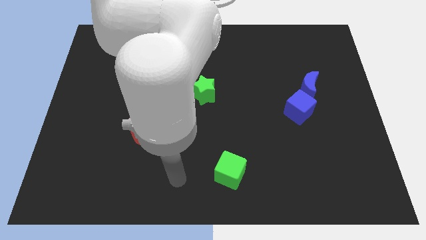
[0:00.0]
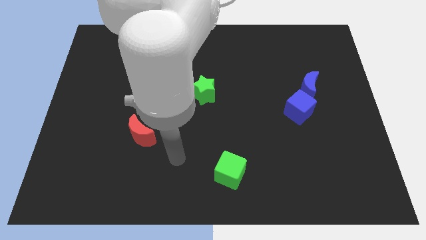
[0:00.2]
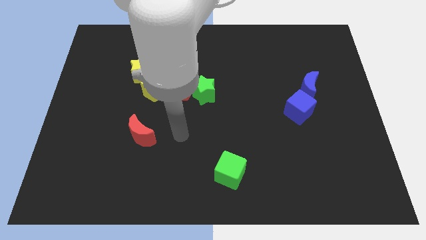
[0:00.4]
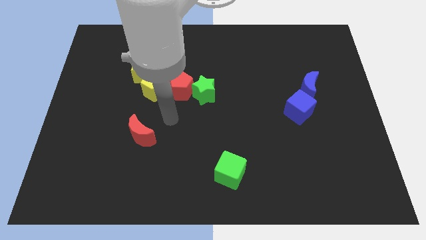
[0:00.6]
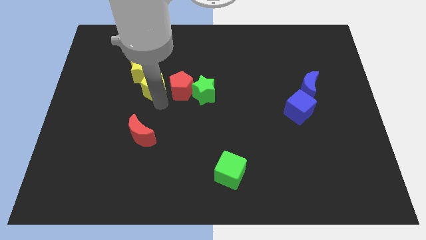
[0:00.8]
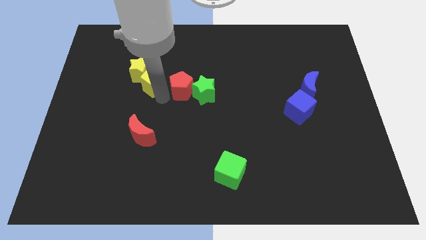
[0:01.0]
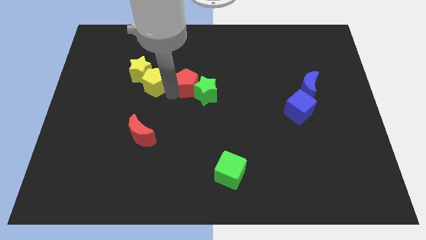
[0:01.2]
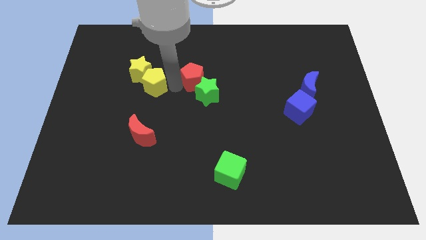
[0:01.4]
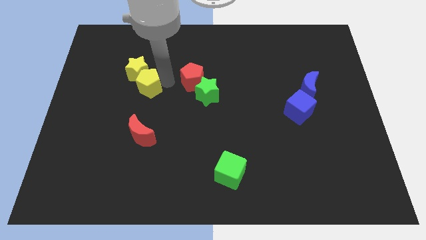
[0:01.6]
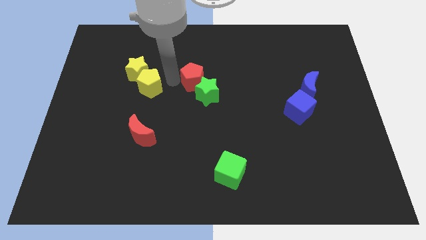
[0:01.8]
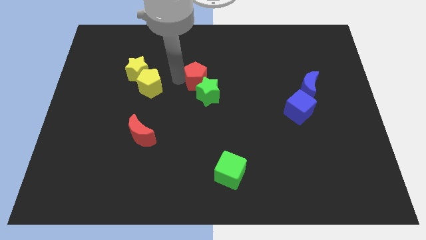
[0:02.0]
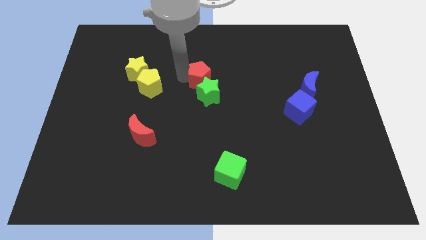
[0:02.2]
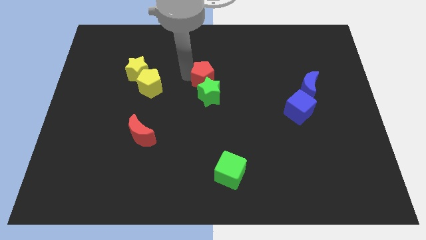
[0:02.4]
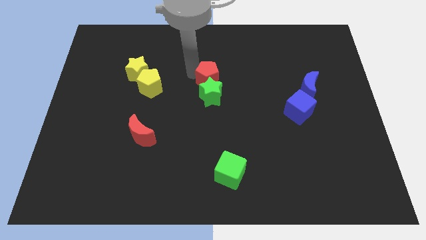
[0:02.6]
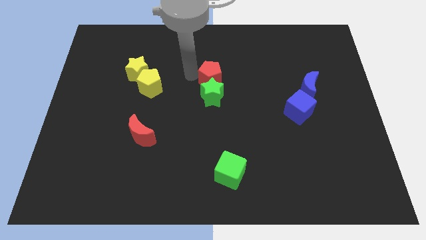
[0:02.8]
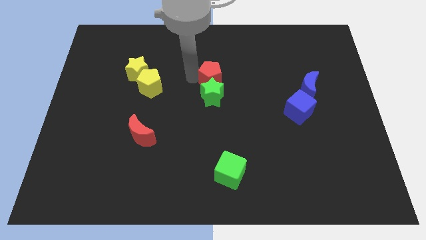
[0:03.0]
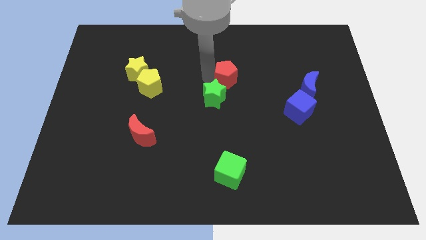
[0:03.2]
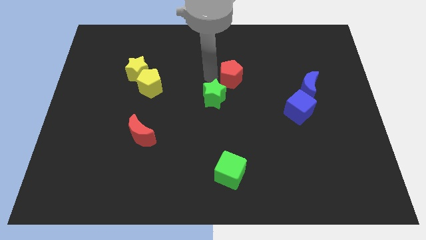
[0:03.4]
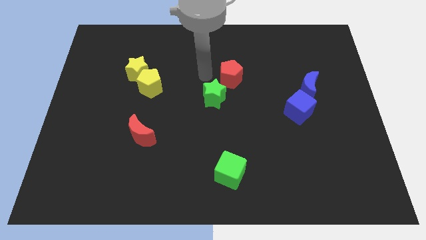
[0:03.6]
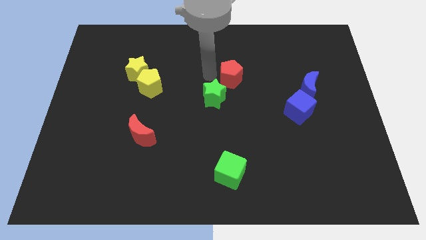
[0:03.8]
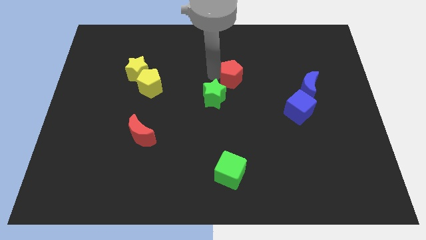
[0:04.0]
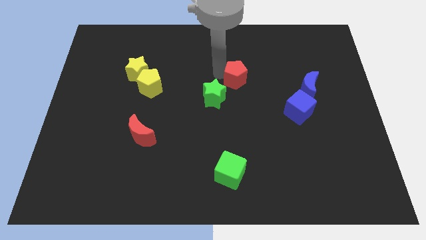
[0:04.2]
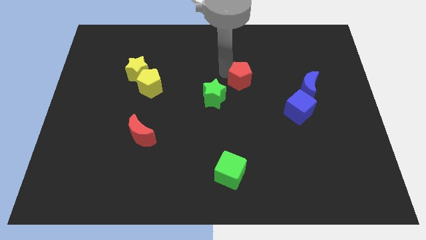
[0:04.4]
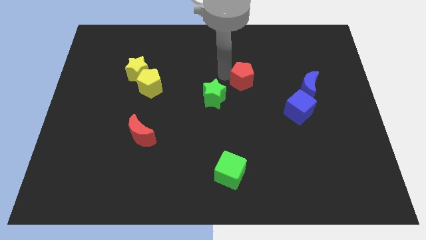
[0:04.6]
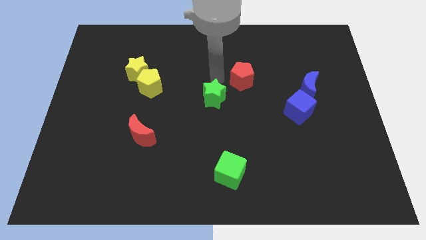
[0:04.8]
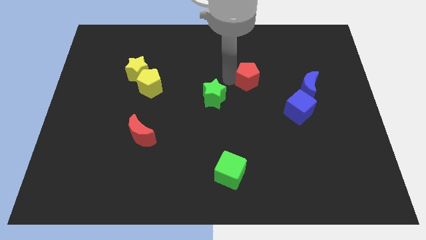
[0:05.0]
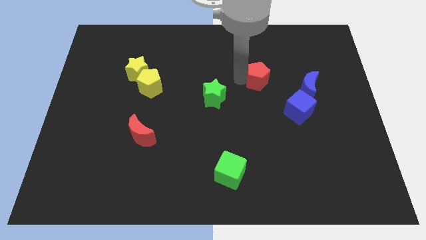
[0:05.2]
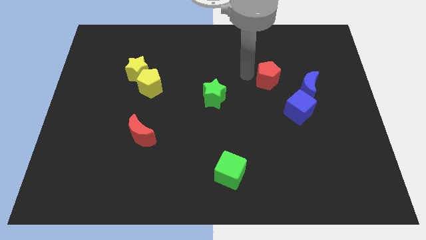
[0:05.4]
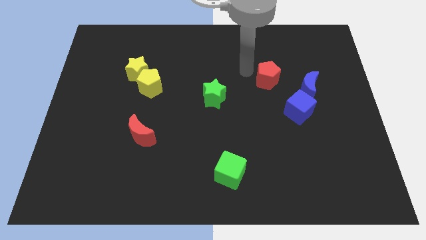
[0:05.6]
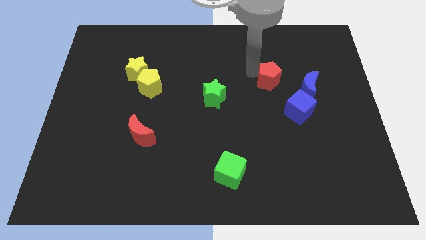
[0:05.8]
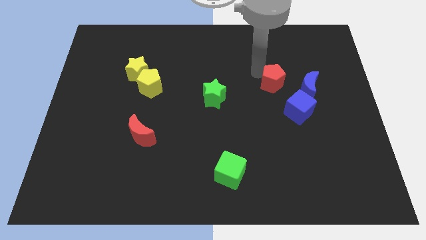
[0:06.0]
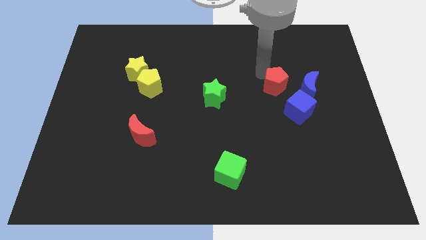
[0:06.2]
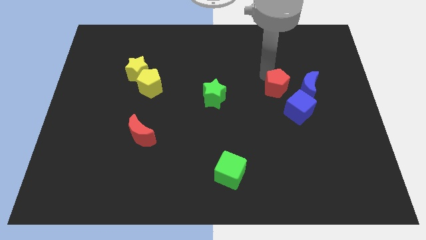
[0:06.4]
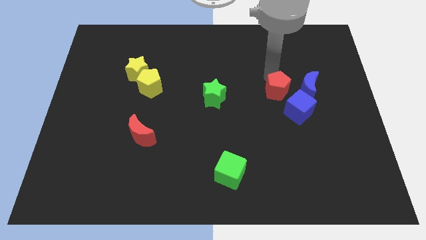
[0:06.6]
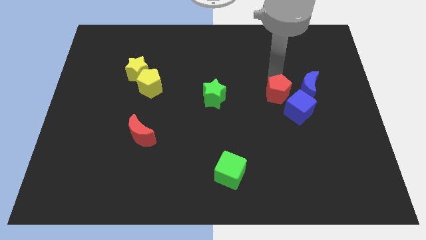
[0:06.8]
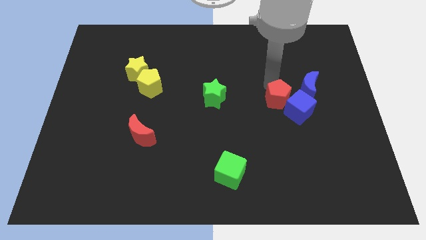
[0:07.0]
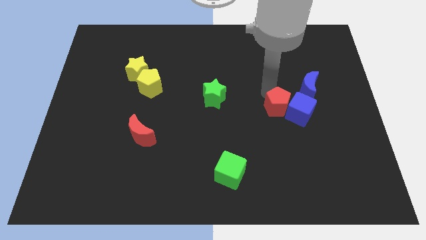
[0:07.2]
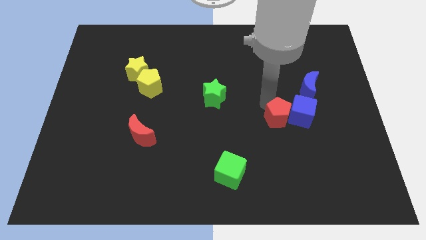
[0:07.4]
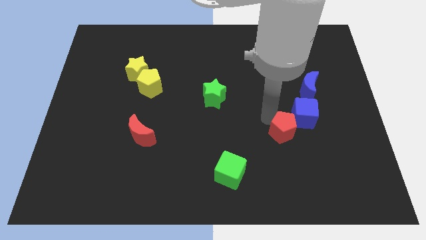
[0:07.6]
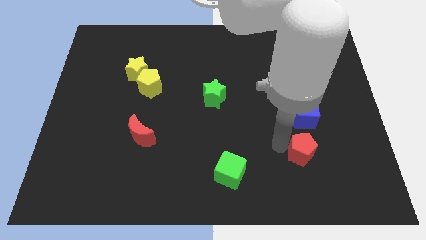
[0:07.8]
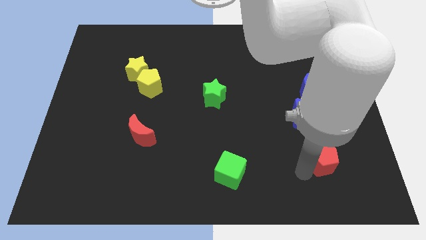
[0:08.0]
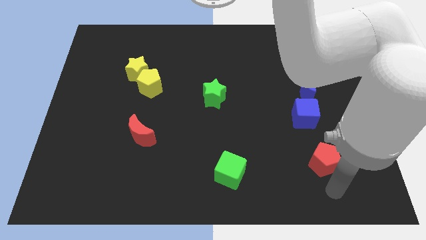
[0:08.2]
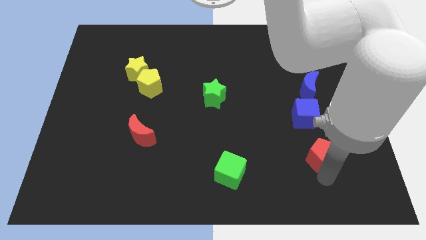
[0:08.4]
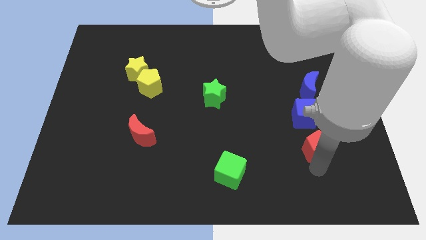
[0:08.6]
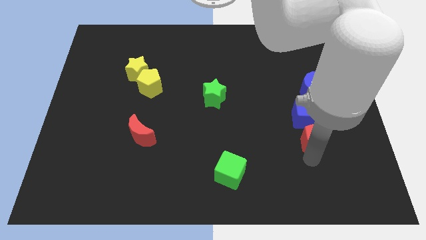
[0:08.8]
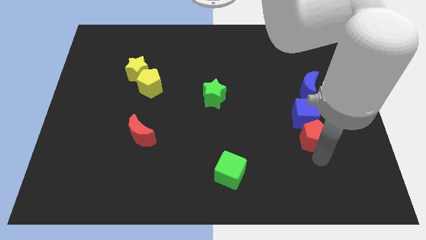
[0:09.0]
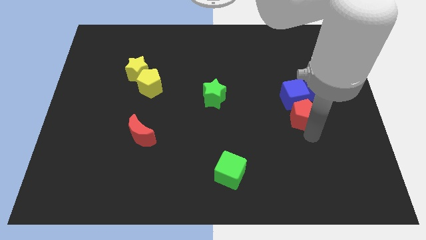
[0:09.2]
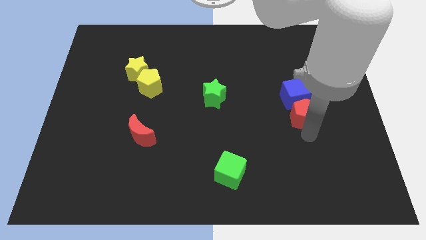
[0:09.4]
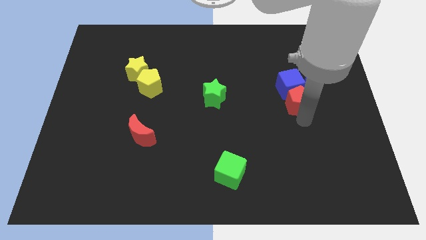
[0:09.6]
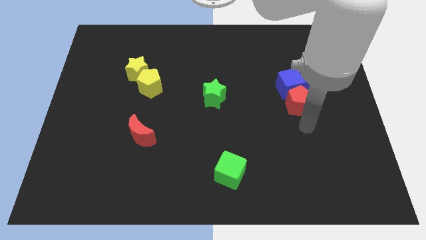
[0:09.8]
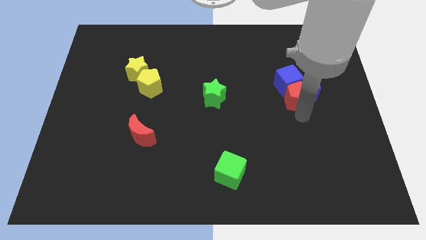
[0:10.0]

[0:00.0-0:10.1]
move the red pentagon close to the blue moon

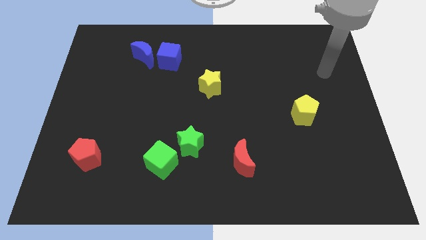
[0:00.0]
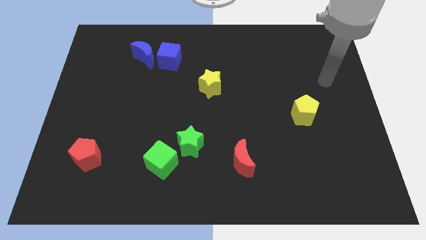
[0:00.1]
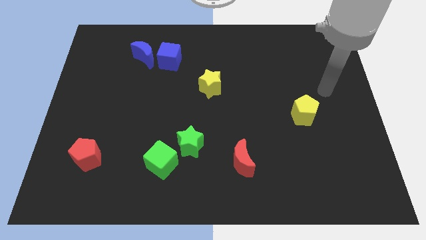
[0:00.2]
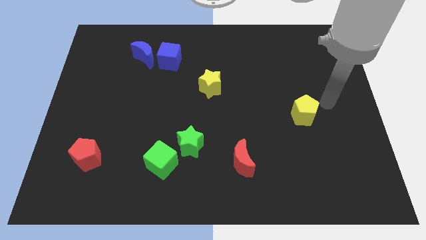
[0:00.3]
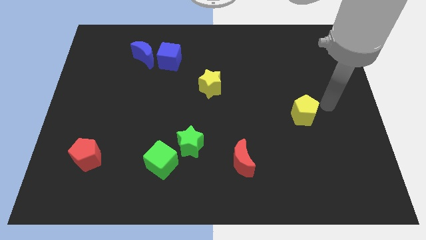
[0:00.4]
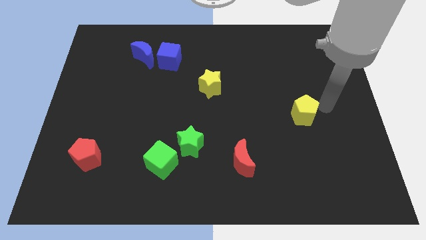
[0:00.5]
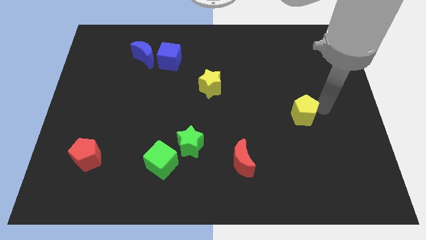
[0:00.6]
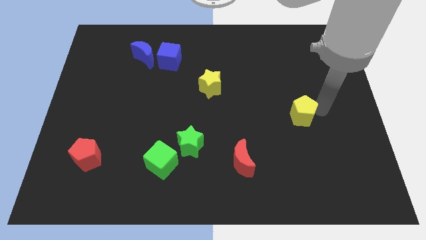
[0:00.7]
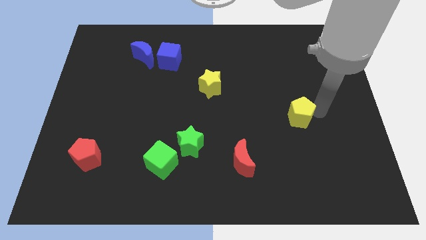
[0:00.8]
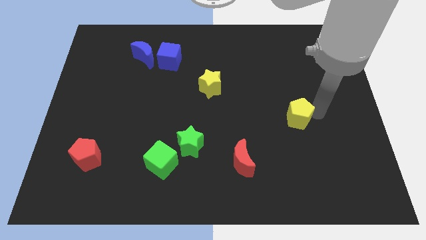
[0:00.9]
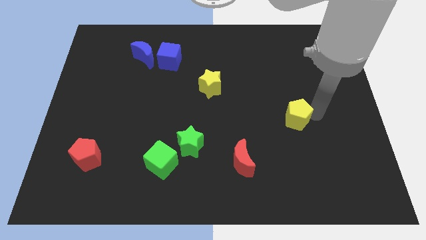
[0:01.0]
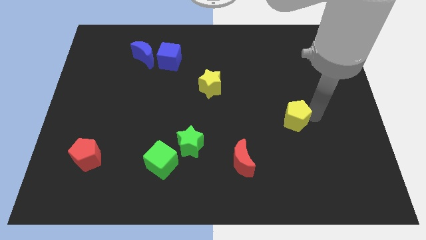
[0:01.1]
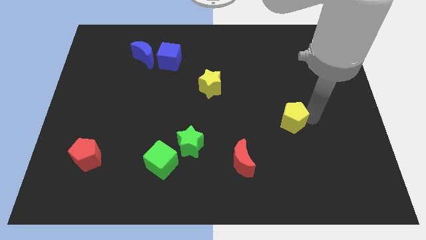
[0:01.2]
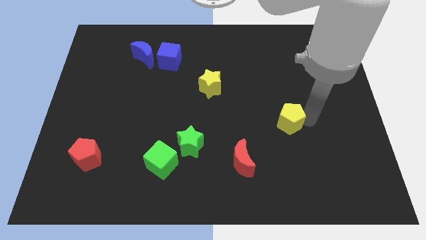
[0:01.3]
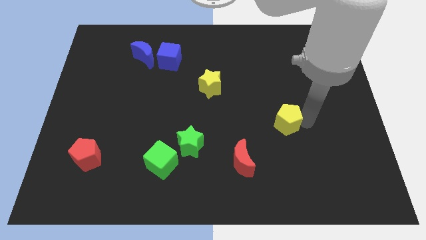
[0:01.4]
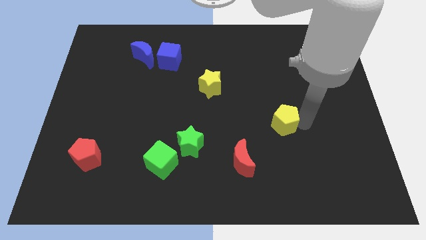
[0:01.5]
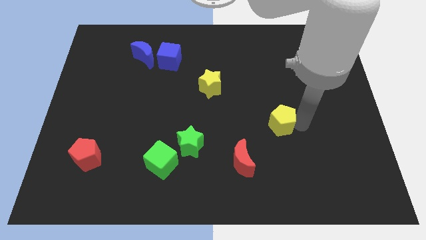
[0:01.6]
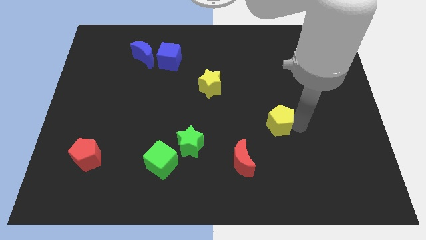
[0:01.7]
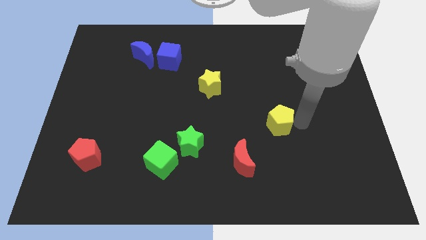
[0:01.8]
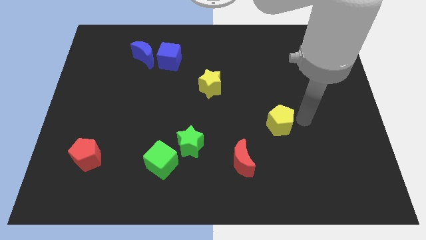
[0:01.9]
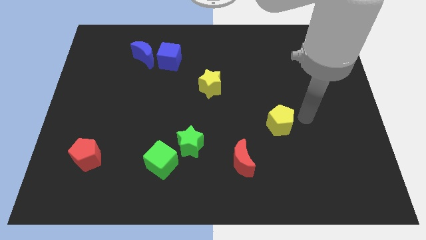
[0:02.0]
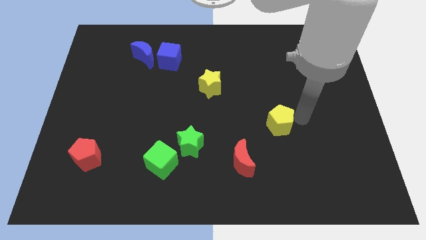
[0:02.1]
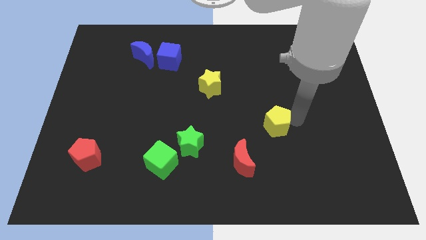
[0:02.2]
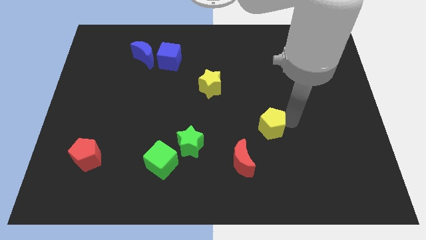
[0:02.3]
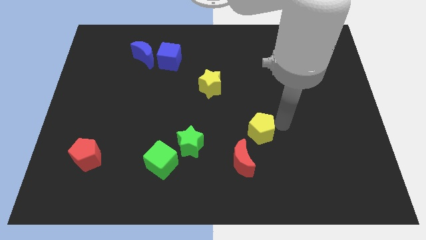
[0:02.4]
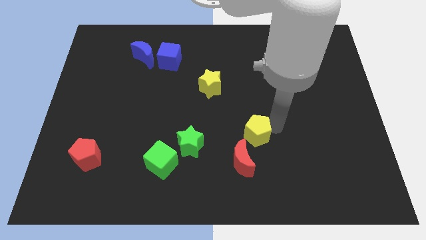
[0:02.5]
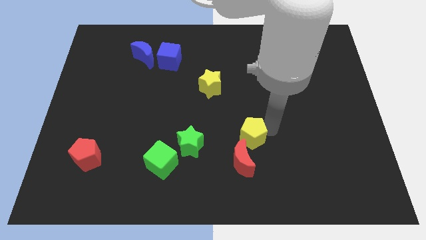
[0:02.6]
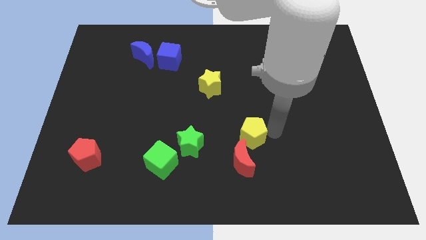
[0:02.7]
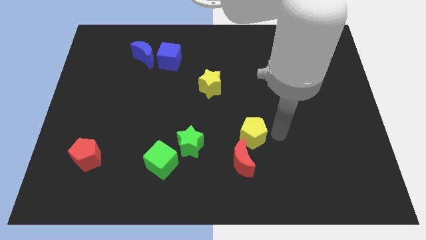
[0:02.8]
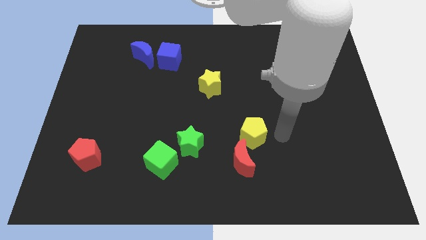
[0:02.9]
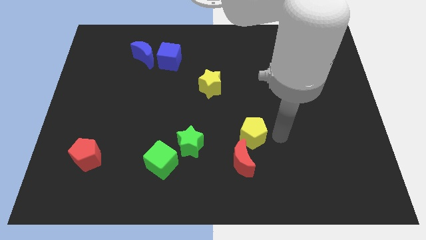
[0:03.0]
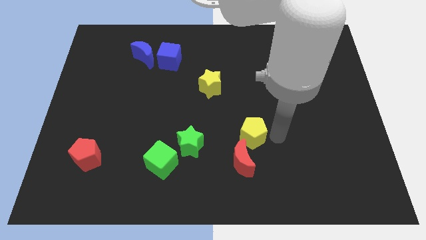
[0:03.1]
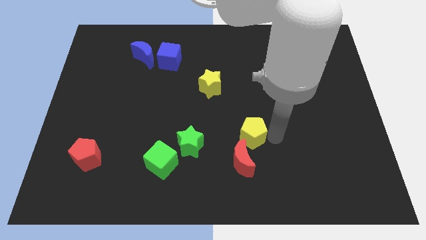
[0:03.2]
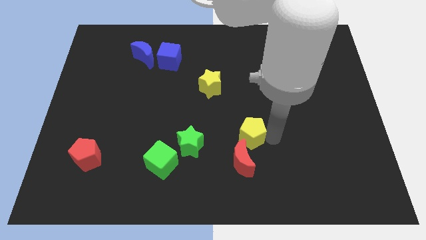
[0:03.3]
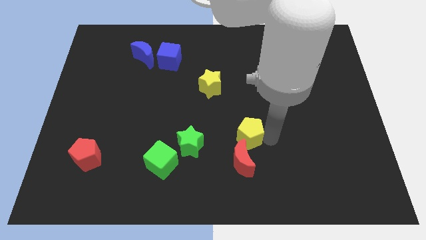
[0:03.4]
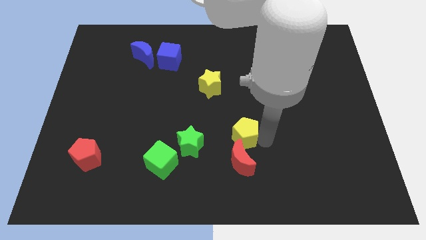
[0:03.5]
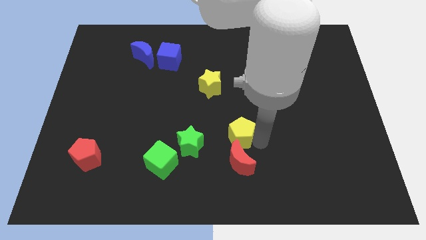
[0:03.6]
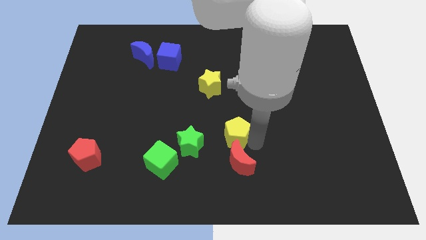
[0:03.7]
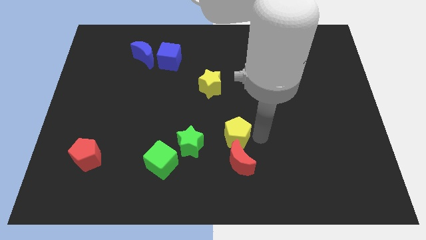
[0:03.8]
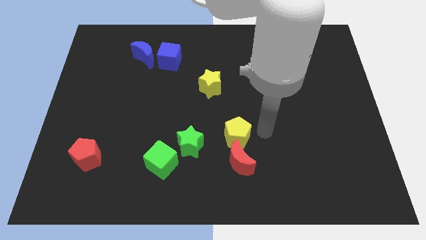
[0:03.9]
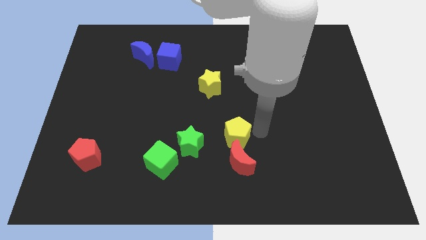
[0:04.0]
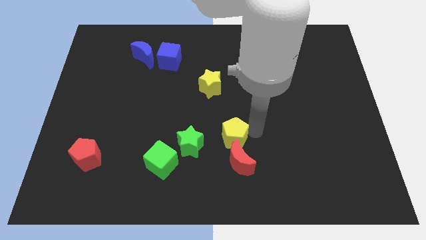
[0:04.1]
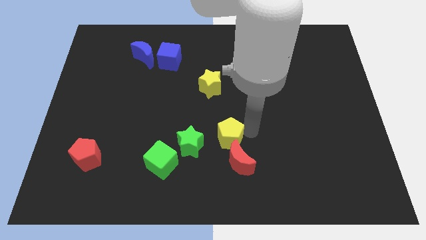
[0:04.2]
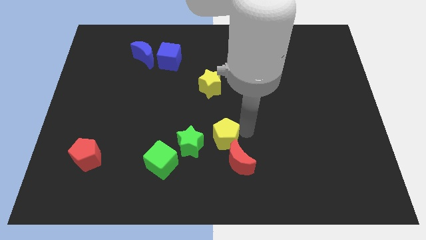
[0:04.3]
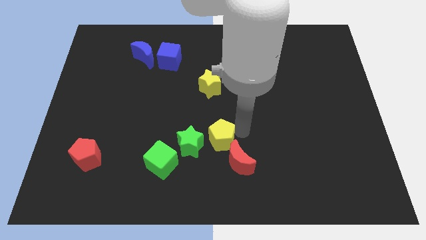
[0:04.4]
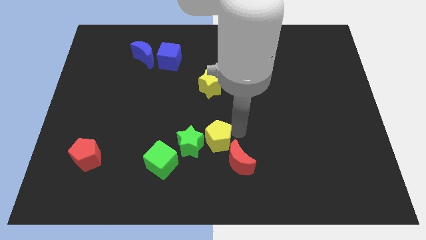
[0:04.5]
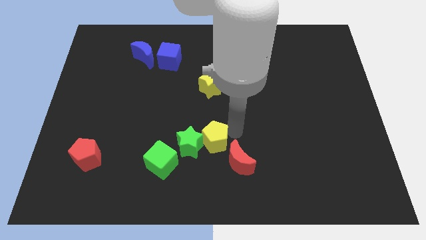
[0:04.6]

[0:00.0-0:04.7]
push the yellow pentagon next to the green star
